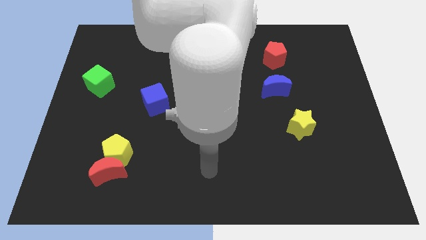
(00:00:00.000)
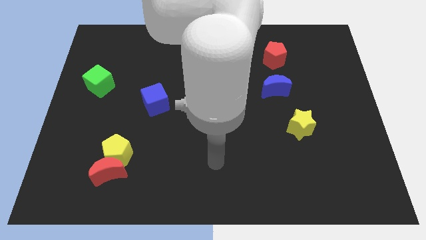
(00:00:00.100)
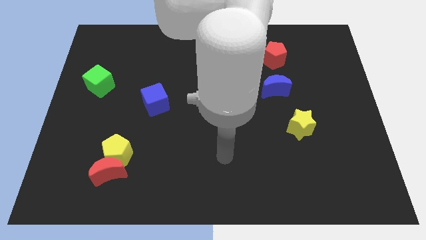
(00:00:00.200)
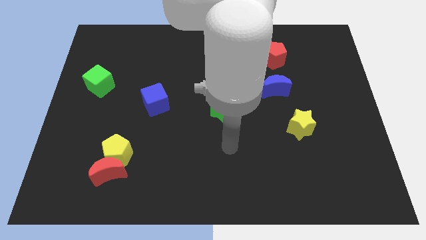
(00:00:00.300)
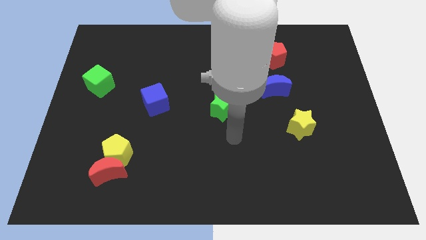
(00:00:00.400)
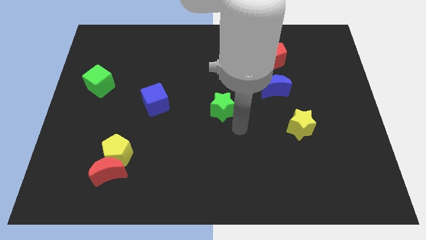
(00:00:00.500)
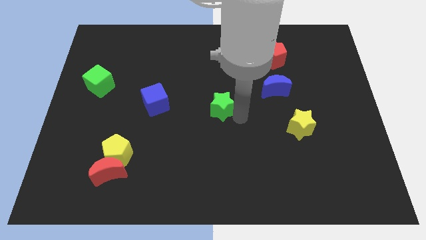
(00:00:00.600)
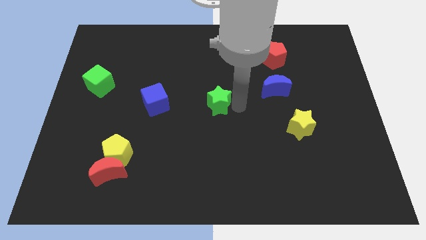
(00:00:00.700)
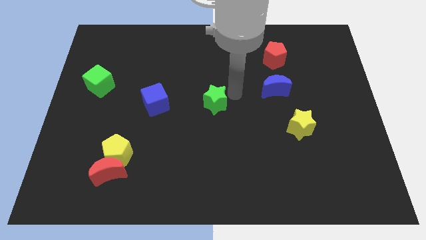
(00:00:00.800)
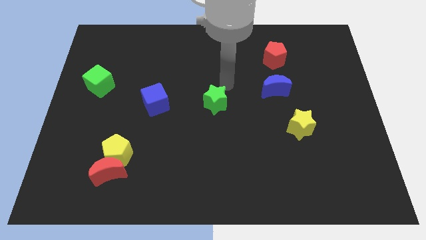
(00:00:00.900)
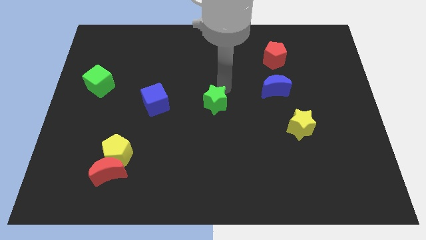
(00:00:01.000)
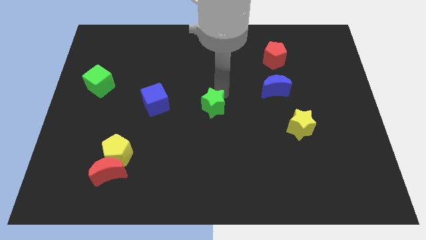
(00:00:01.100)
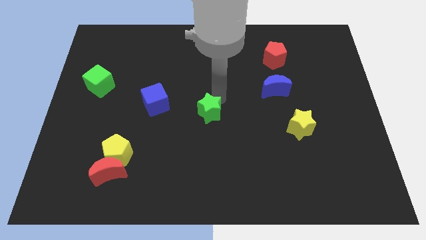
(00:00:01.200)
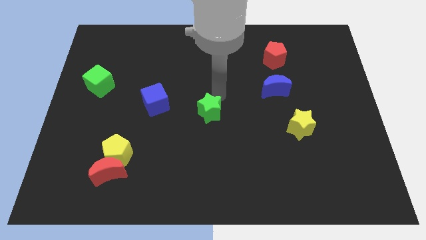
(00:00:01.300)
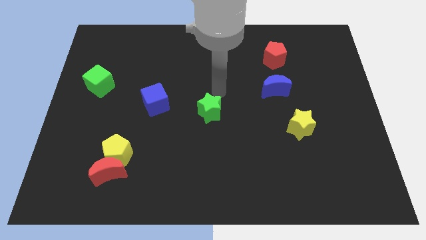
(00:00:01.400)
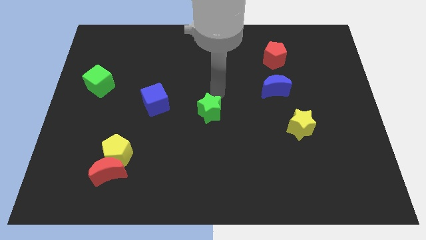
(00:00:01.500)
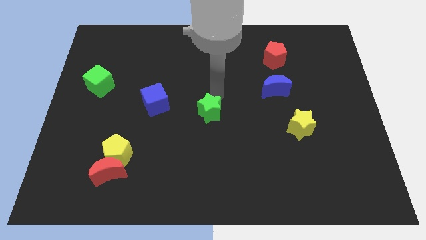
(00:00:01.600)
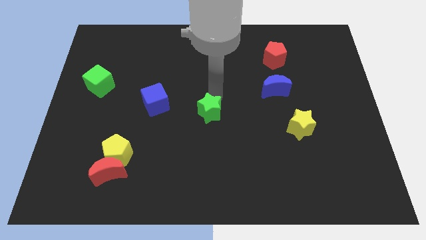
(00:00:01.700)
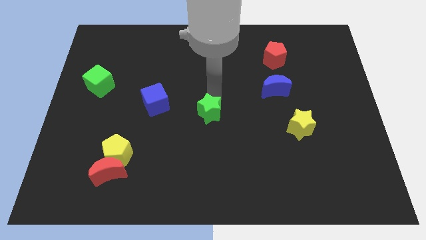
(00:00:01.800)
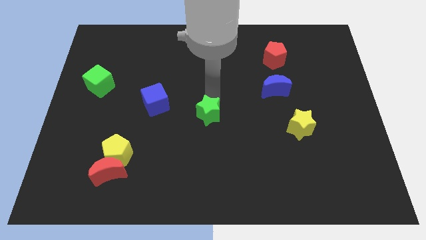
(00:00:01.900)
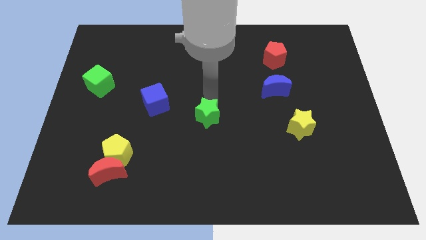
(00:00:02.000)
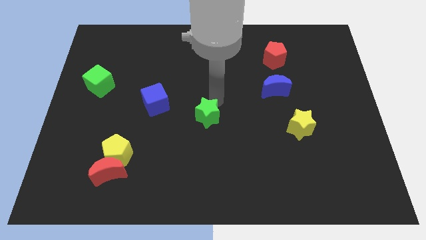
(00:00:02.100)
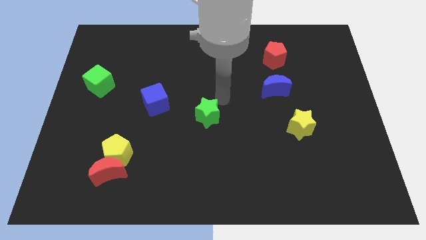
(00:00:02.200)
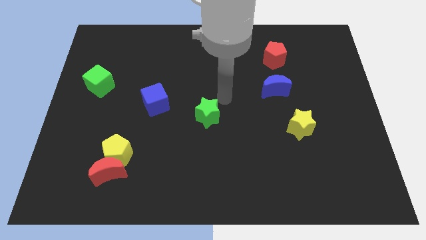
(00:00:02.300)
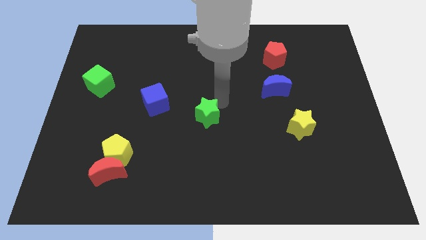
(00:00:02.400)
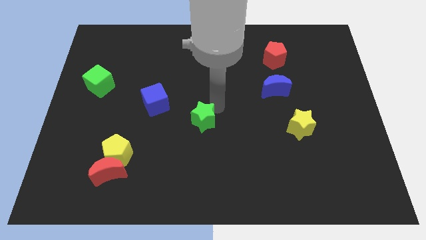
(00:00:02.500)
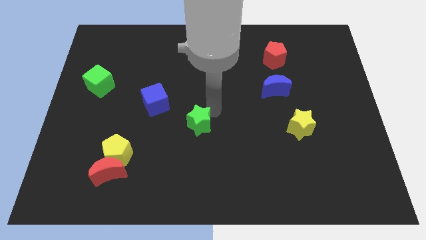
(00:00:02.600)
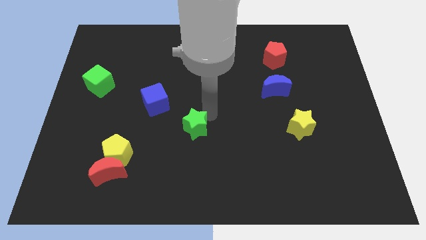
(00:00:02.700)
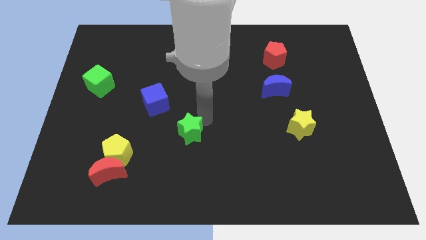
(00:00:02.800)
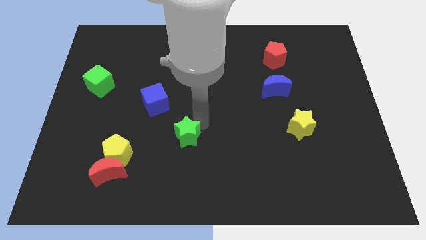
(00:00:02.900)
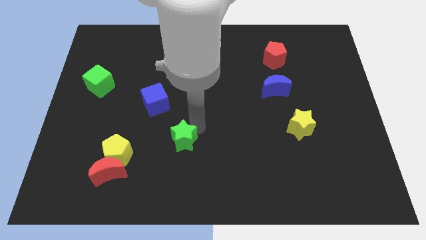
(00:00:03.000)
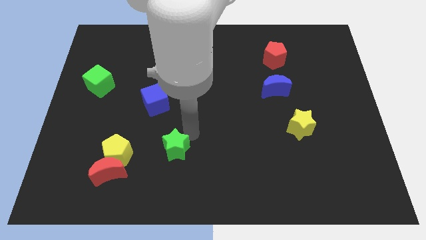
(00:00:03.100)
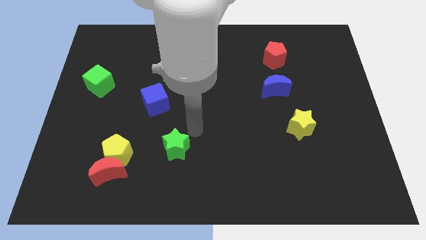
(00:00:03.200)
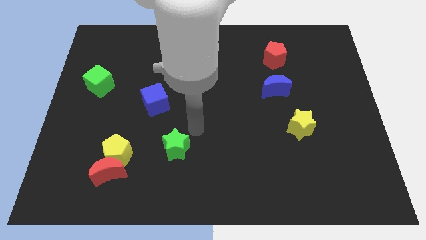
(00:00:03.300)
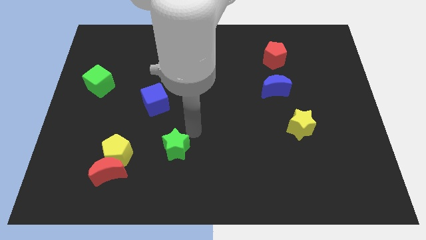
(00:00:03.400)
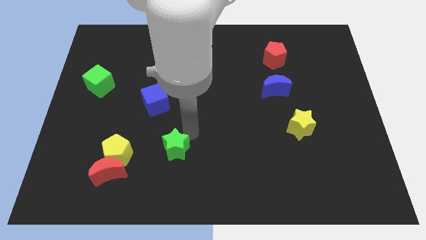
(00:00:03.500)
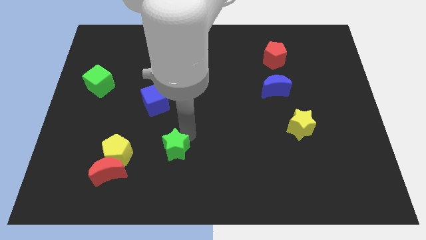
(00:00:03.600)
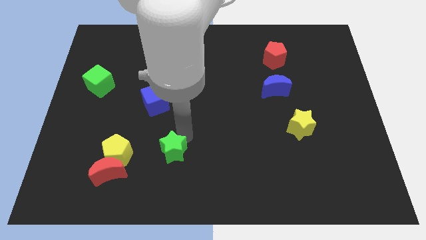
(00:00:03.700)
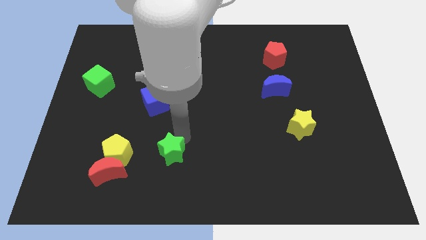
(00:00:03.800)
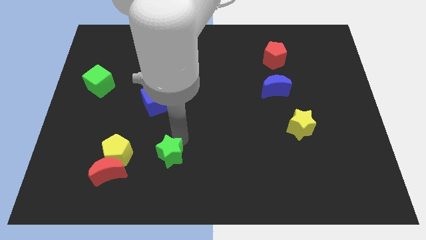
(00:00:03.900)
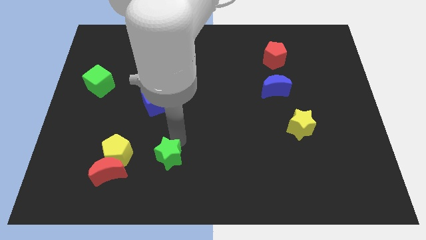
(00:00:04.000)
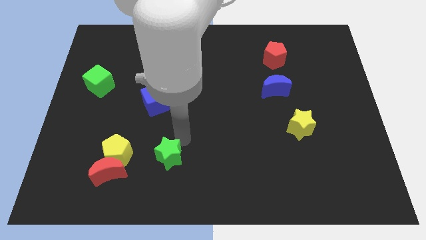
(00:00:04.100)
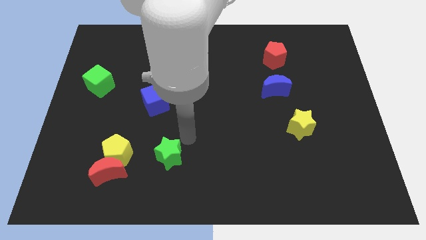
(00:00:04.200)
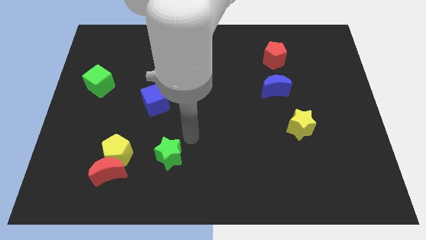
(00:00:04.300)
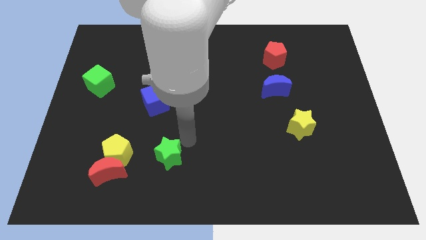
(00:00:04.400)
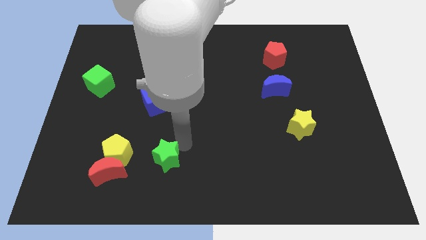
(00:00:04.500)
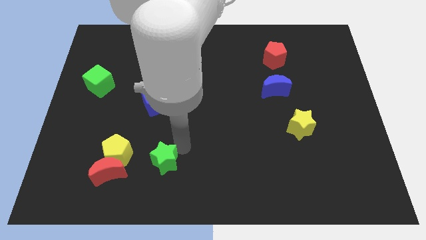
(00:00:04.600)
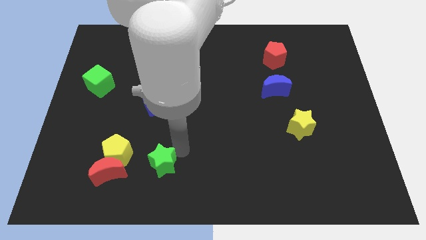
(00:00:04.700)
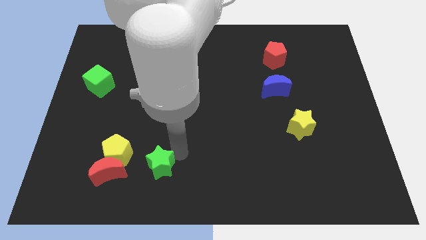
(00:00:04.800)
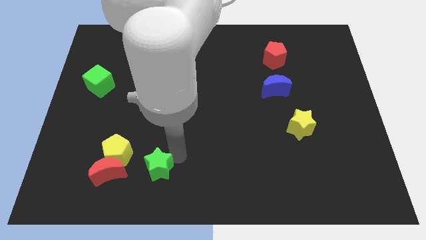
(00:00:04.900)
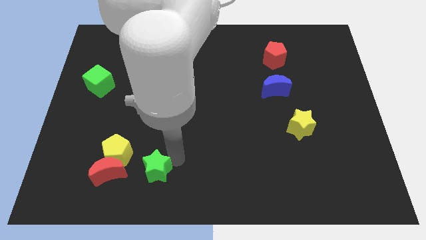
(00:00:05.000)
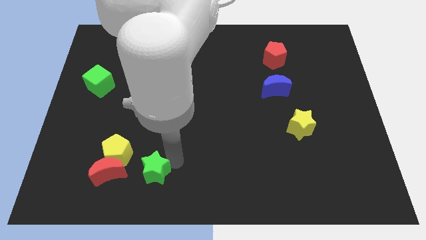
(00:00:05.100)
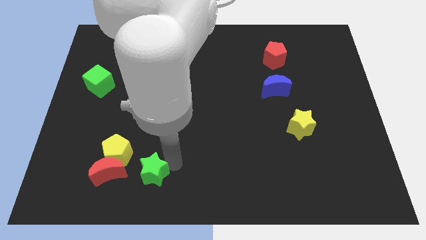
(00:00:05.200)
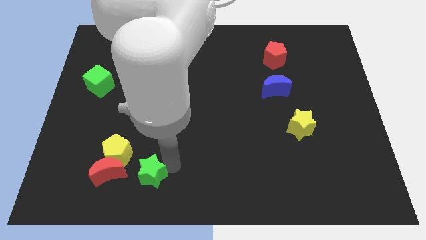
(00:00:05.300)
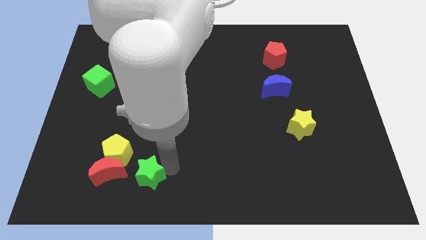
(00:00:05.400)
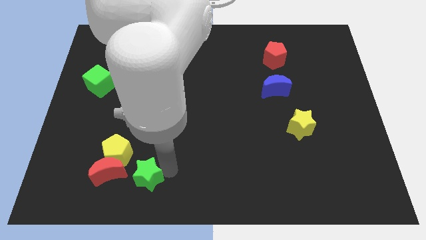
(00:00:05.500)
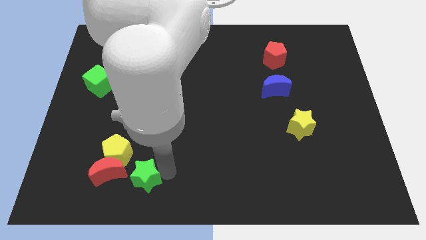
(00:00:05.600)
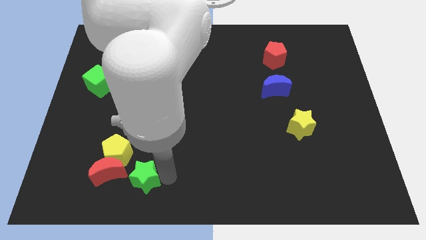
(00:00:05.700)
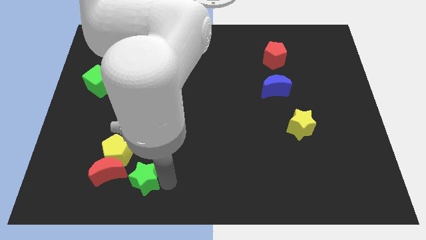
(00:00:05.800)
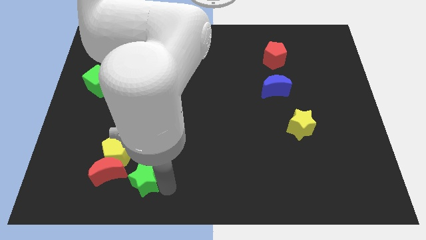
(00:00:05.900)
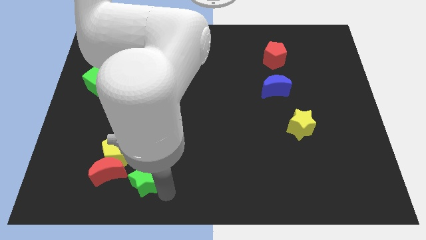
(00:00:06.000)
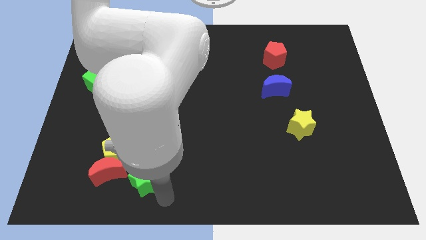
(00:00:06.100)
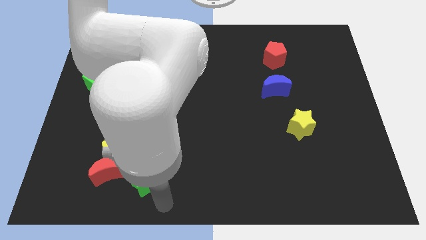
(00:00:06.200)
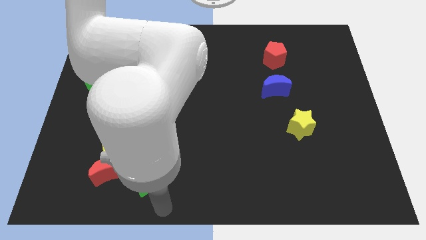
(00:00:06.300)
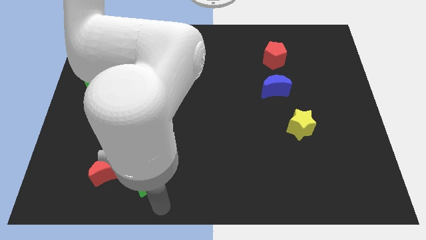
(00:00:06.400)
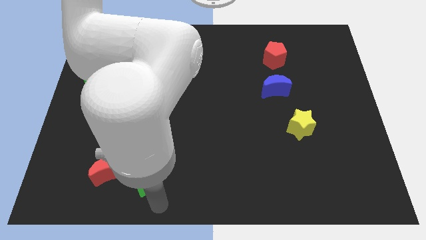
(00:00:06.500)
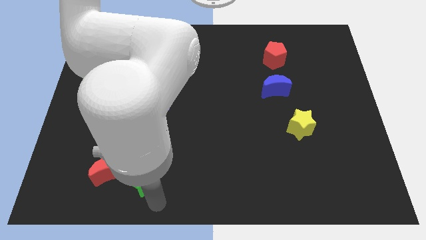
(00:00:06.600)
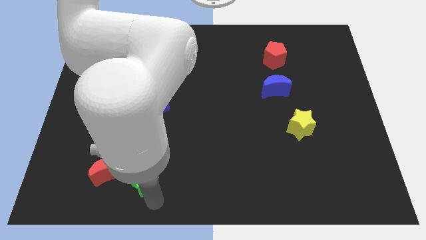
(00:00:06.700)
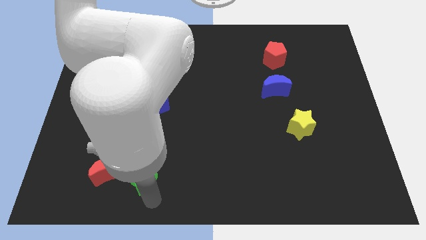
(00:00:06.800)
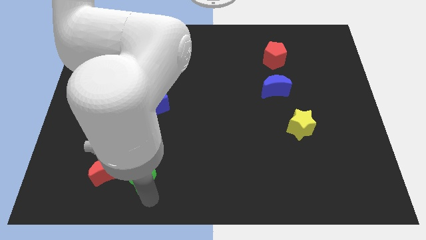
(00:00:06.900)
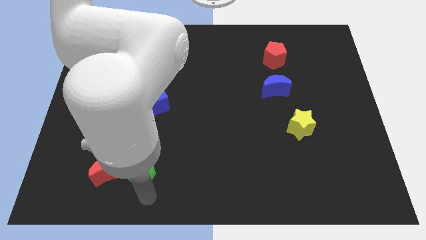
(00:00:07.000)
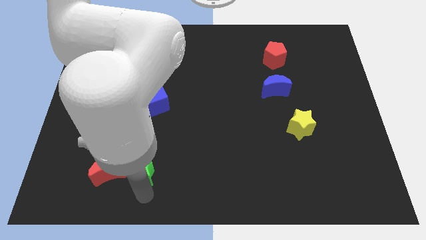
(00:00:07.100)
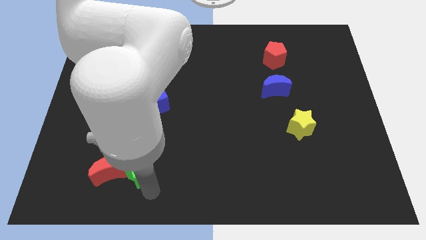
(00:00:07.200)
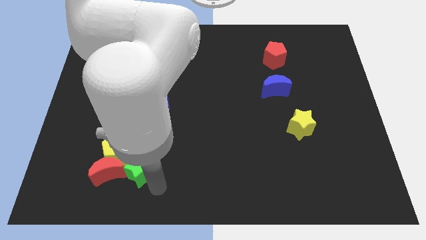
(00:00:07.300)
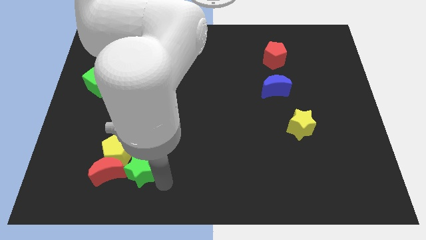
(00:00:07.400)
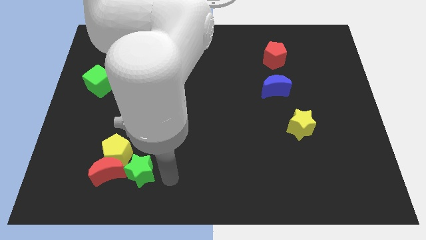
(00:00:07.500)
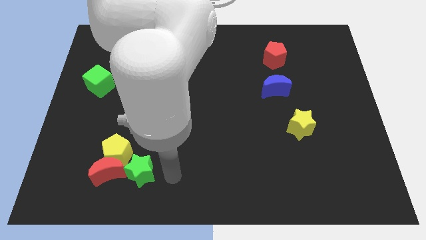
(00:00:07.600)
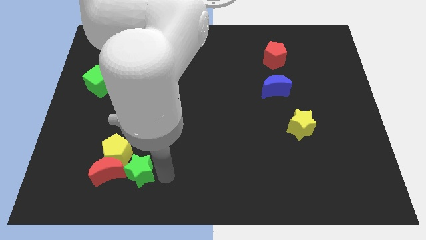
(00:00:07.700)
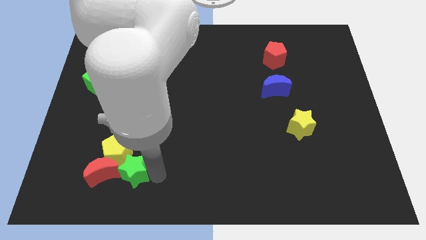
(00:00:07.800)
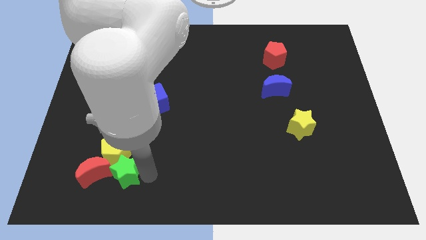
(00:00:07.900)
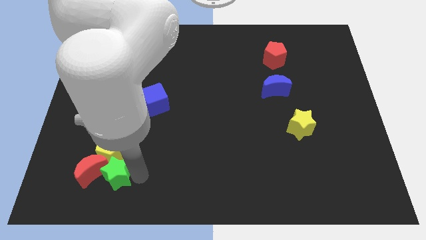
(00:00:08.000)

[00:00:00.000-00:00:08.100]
slide the green star next to the red moon
